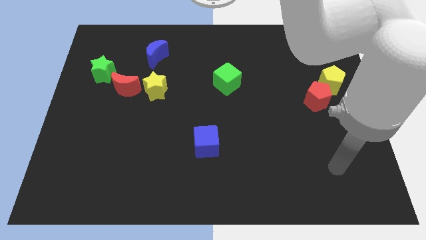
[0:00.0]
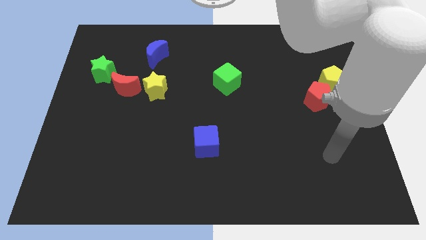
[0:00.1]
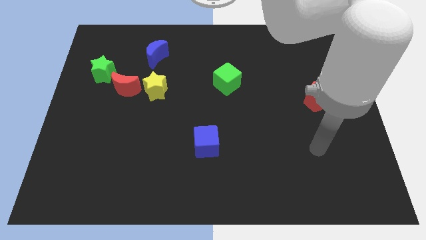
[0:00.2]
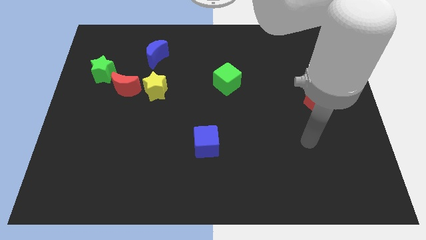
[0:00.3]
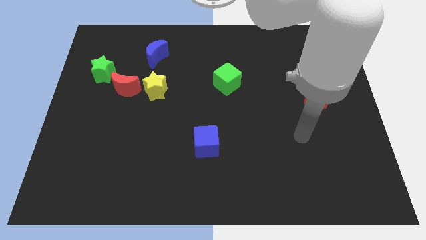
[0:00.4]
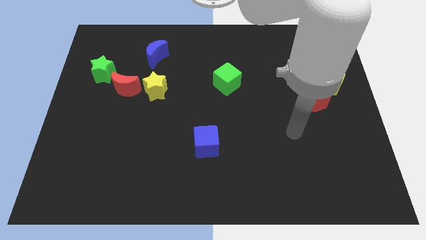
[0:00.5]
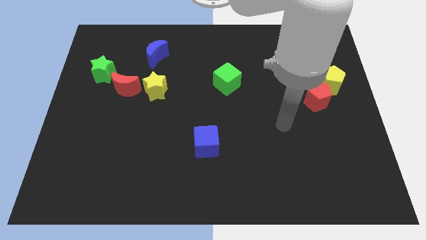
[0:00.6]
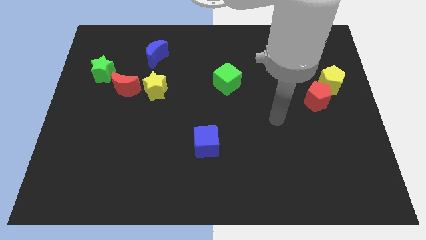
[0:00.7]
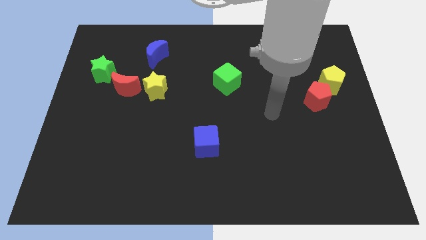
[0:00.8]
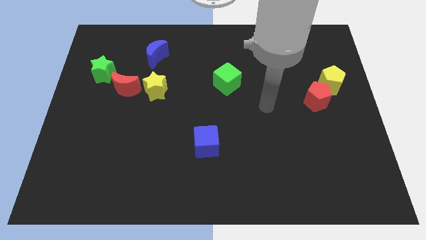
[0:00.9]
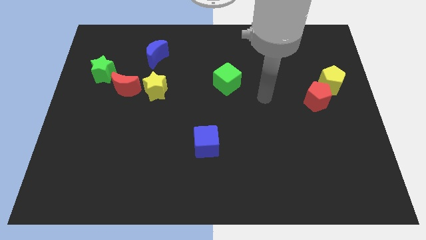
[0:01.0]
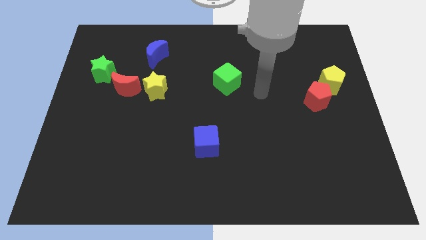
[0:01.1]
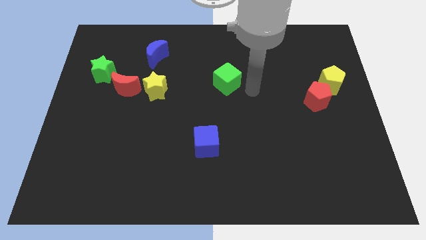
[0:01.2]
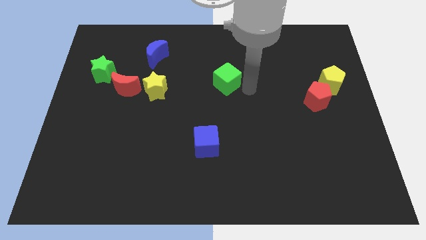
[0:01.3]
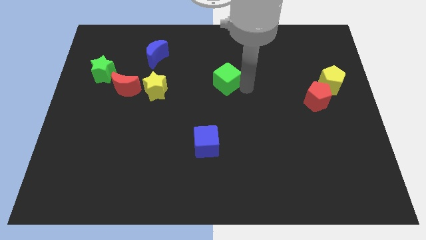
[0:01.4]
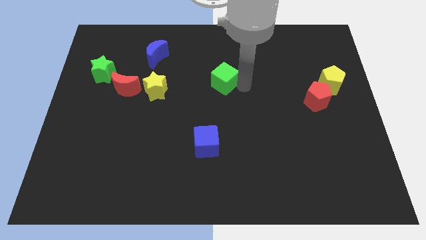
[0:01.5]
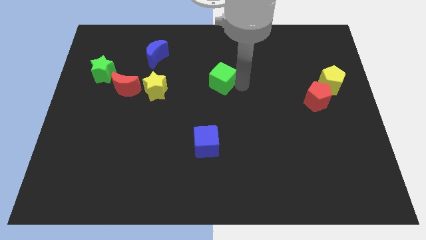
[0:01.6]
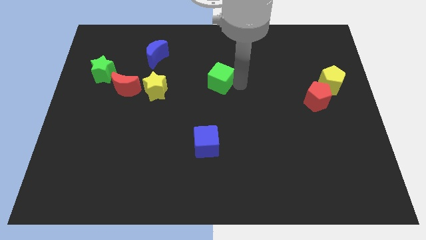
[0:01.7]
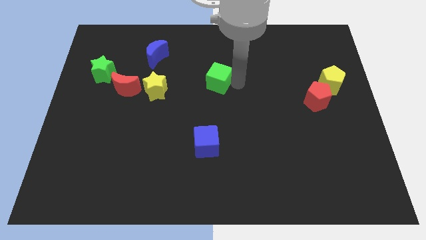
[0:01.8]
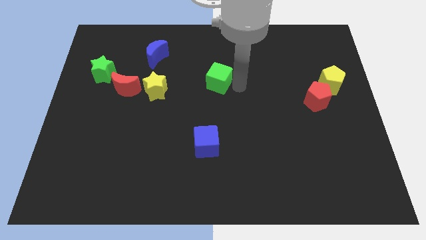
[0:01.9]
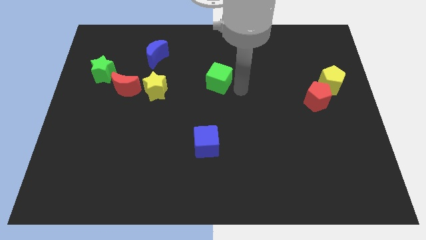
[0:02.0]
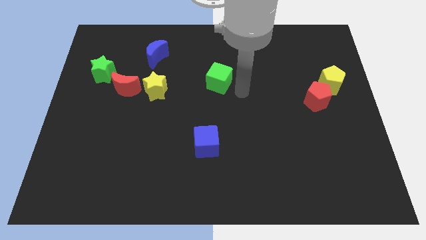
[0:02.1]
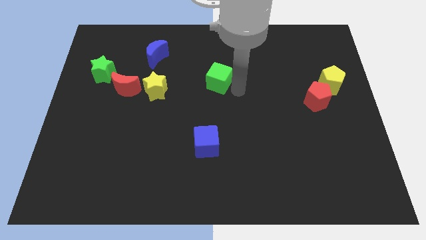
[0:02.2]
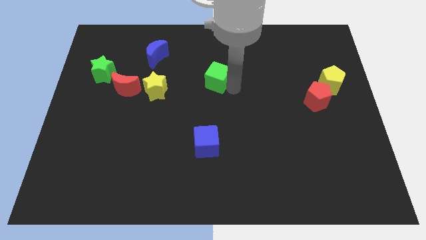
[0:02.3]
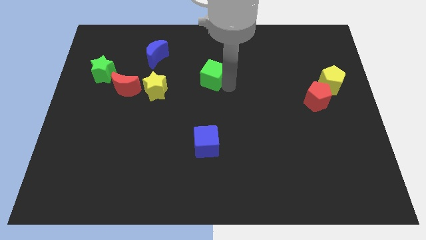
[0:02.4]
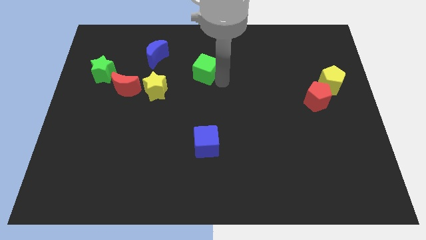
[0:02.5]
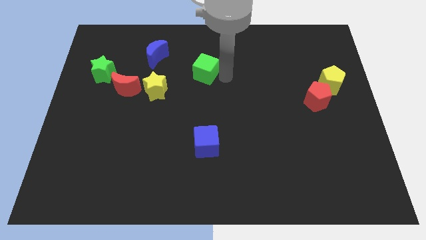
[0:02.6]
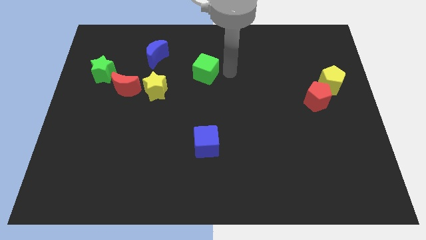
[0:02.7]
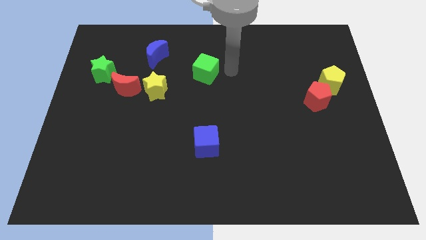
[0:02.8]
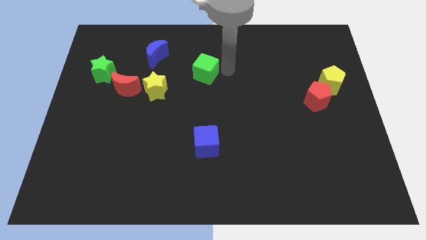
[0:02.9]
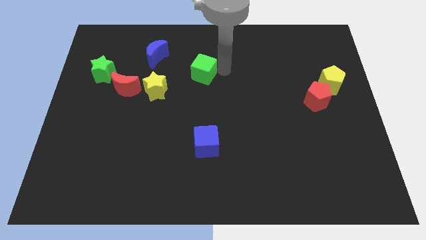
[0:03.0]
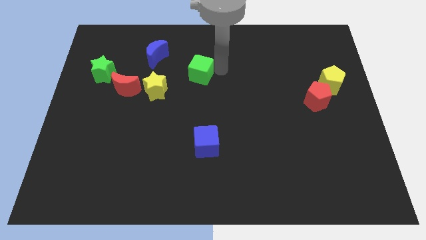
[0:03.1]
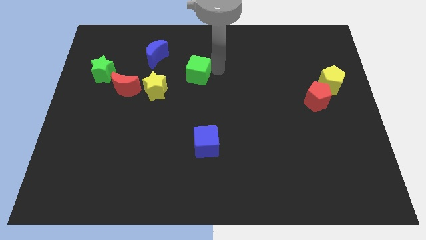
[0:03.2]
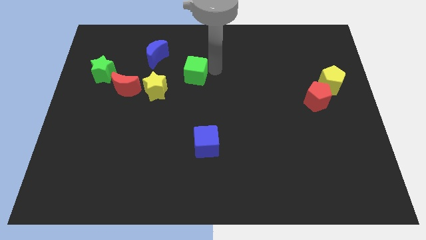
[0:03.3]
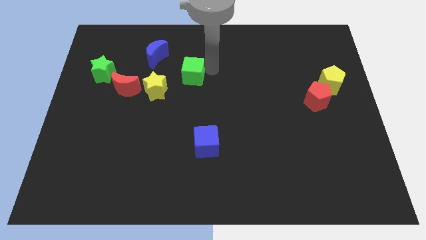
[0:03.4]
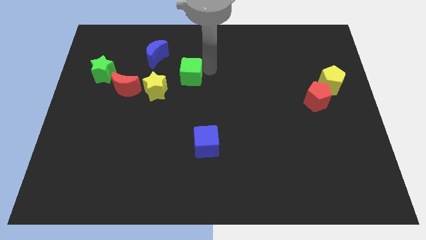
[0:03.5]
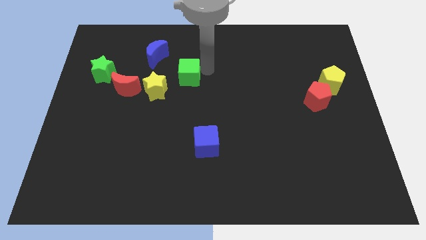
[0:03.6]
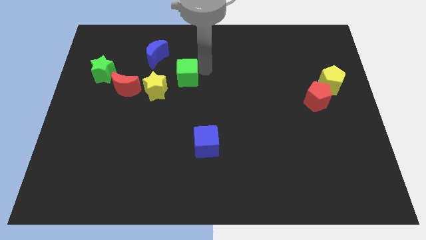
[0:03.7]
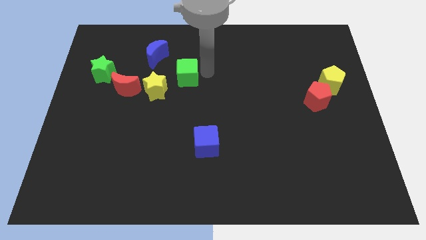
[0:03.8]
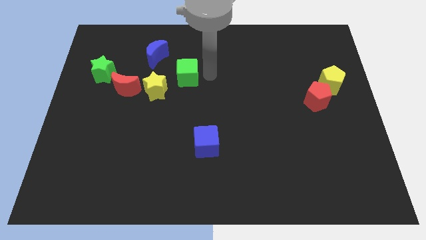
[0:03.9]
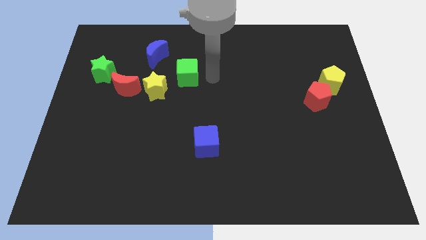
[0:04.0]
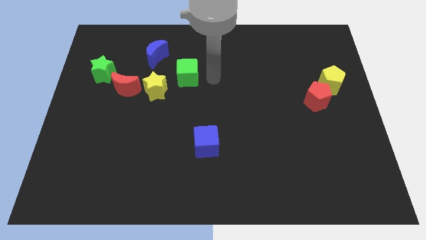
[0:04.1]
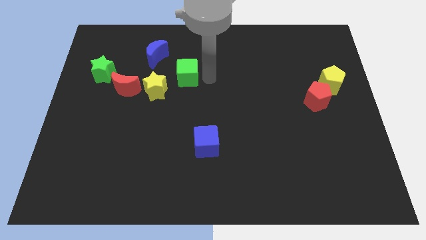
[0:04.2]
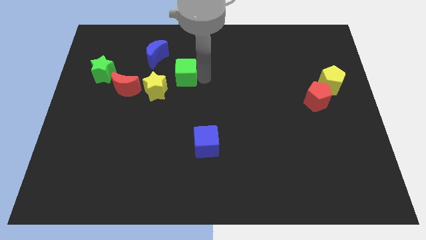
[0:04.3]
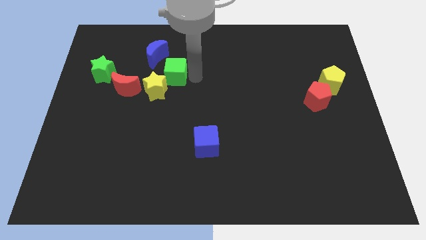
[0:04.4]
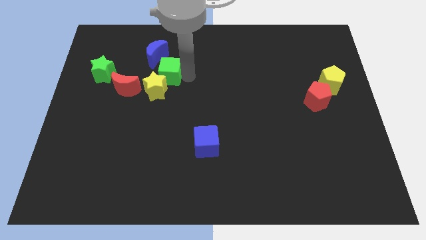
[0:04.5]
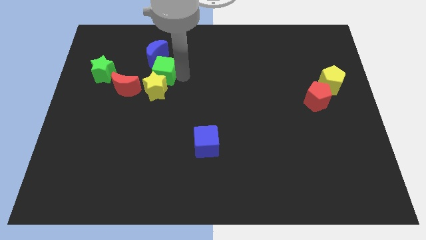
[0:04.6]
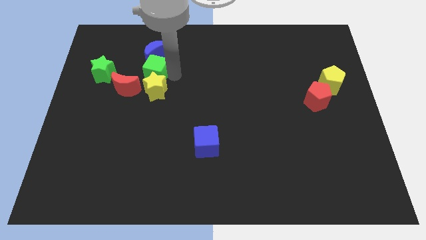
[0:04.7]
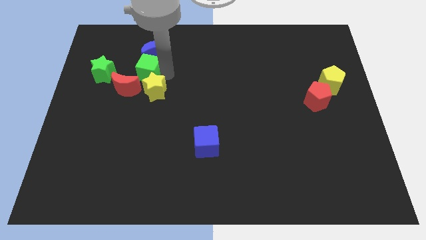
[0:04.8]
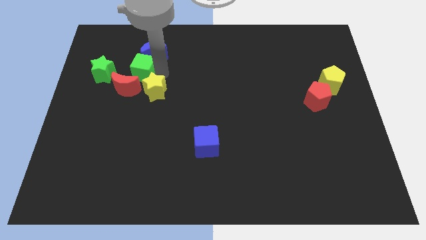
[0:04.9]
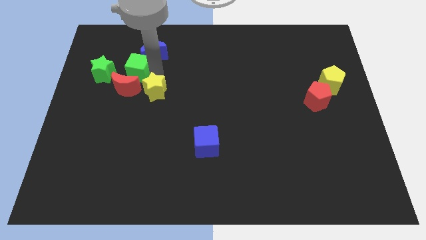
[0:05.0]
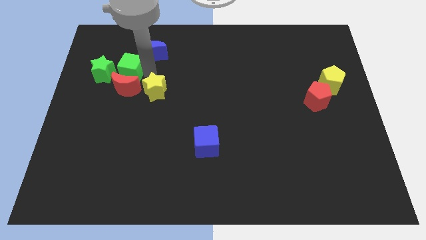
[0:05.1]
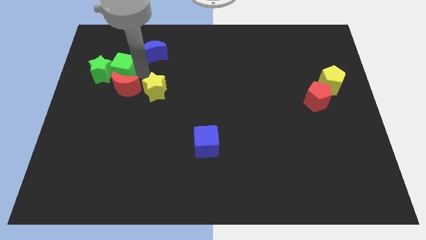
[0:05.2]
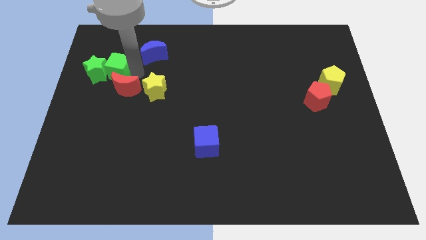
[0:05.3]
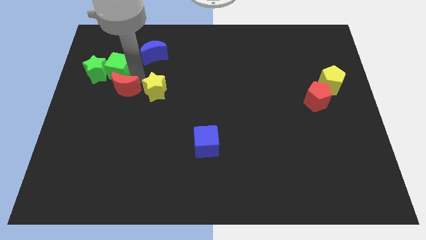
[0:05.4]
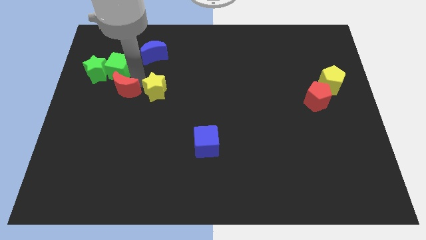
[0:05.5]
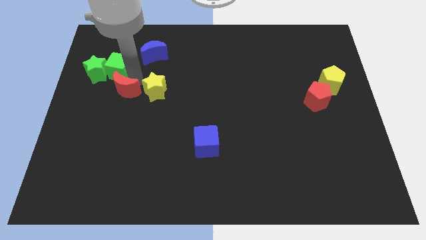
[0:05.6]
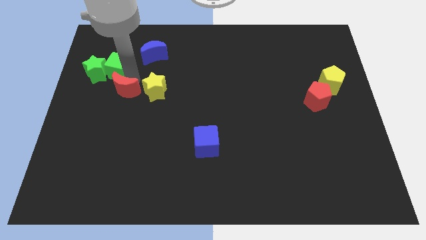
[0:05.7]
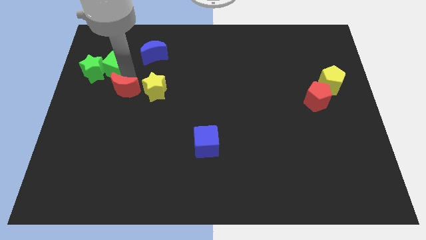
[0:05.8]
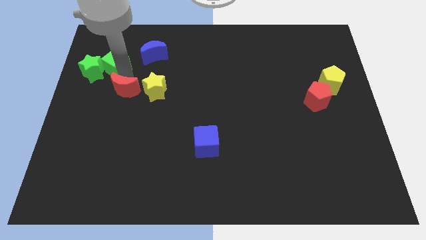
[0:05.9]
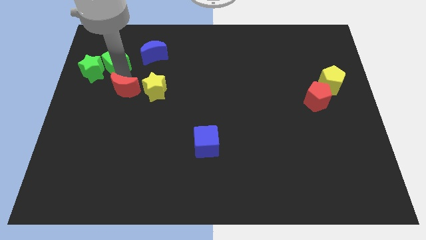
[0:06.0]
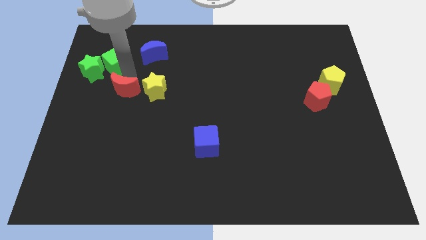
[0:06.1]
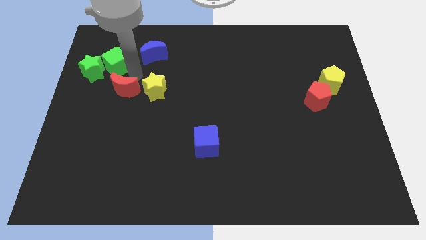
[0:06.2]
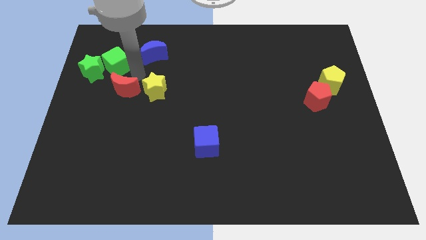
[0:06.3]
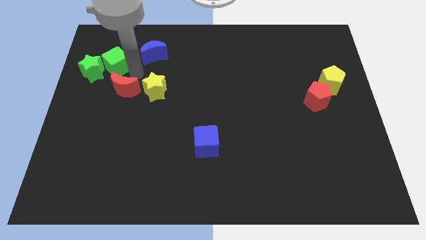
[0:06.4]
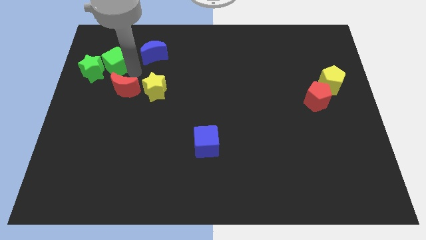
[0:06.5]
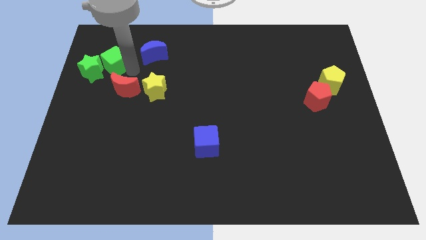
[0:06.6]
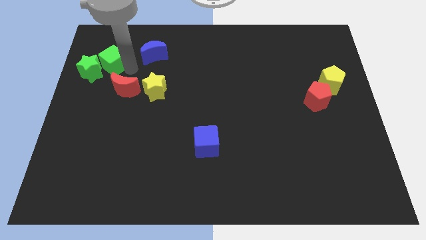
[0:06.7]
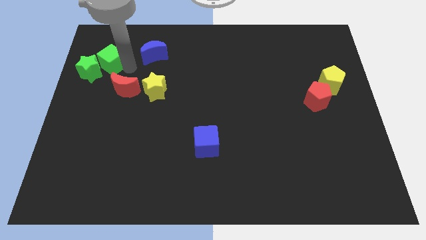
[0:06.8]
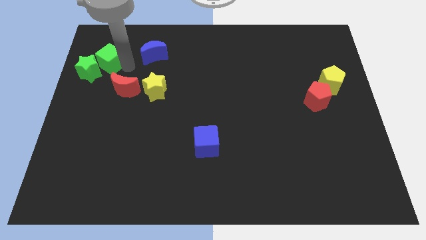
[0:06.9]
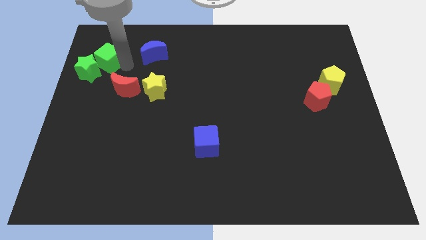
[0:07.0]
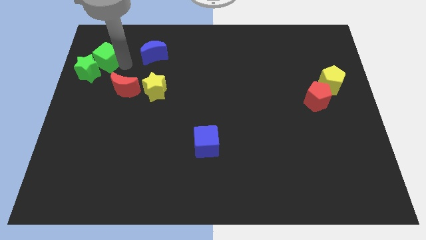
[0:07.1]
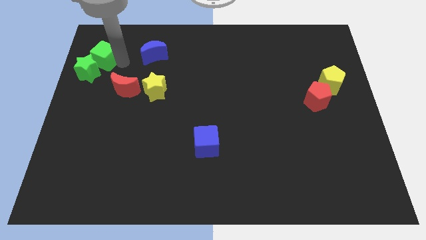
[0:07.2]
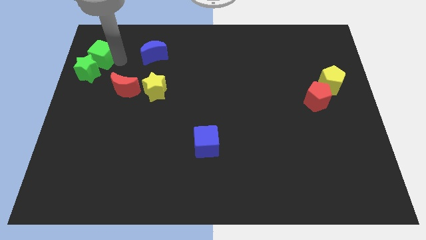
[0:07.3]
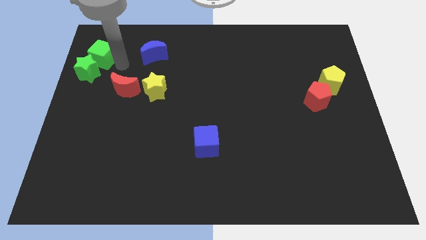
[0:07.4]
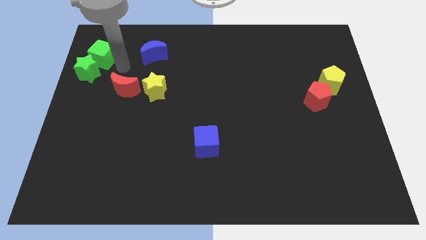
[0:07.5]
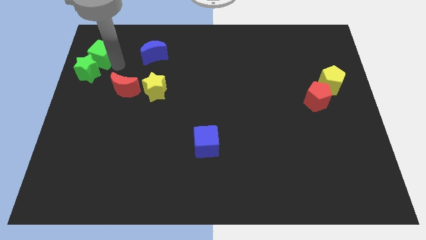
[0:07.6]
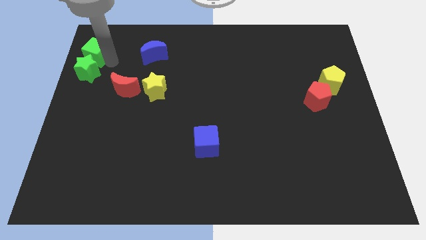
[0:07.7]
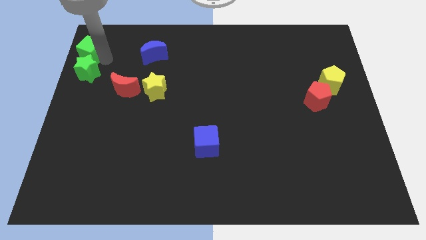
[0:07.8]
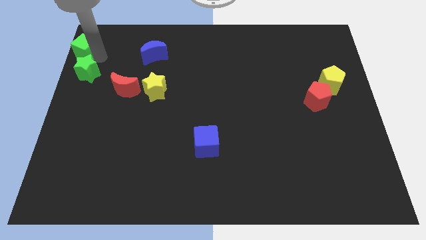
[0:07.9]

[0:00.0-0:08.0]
push the green cube to the top left
